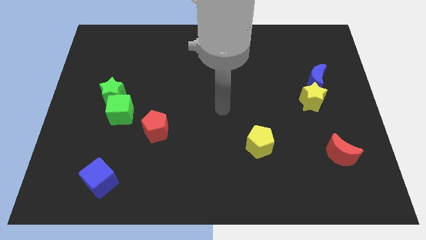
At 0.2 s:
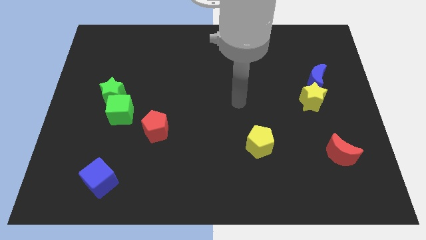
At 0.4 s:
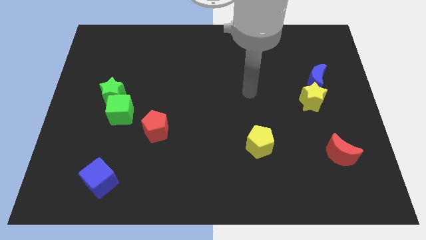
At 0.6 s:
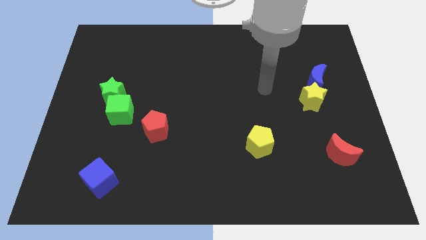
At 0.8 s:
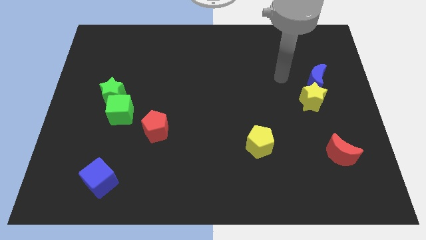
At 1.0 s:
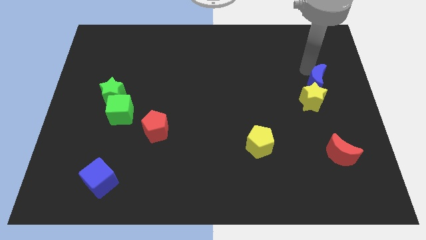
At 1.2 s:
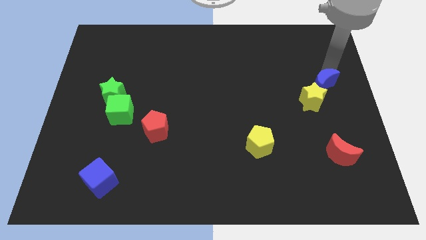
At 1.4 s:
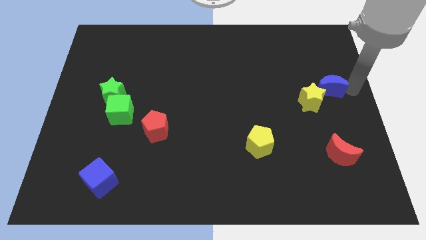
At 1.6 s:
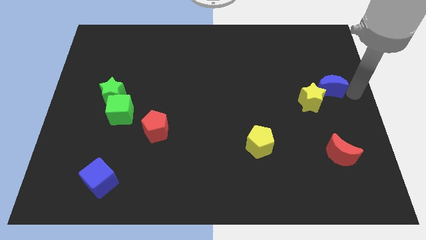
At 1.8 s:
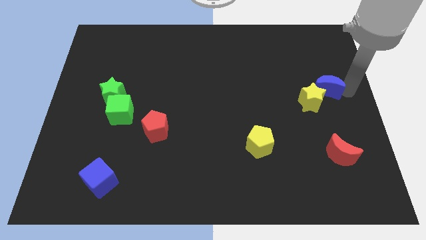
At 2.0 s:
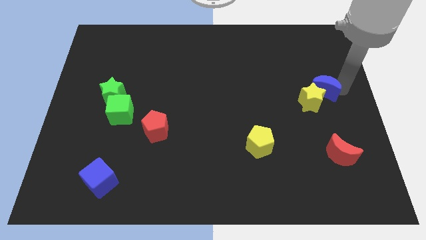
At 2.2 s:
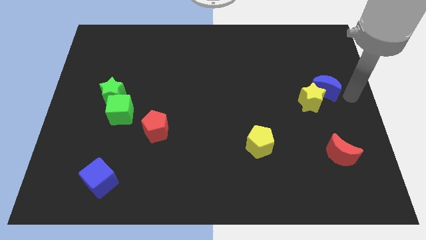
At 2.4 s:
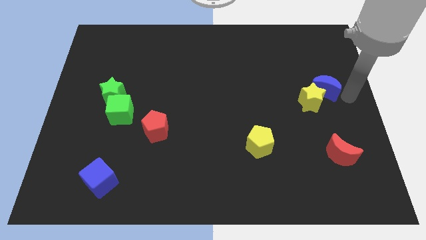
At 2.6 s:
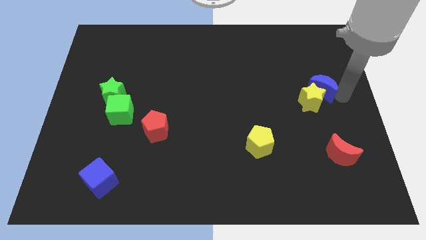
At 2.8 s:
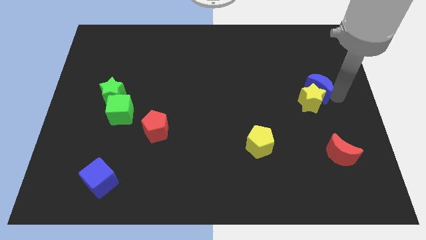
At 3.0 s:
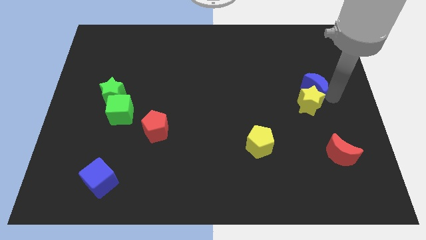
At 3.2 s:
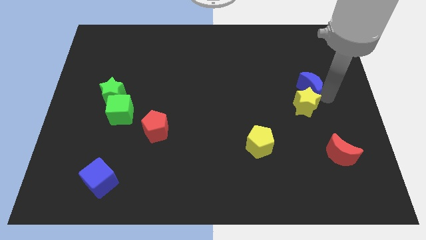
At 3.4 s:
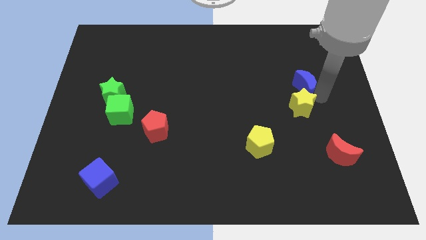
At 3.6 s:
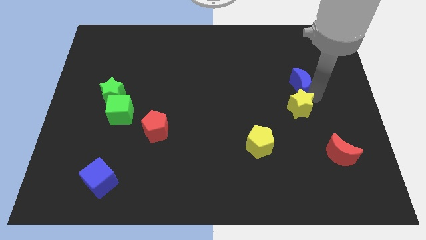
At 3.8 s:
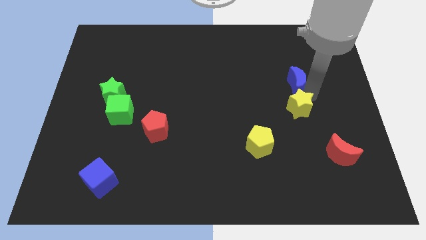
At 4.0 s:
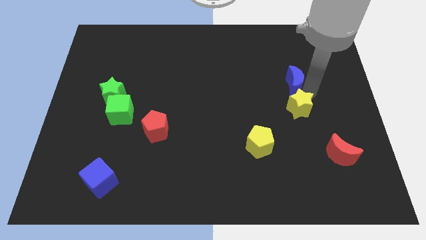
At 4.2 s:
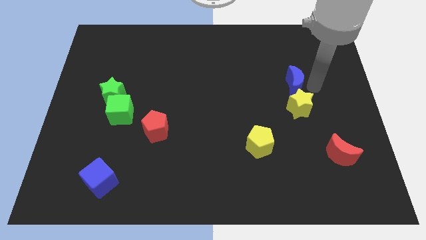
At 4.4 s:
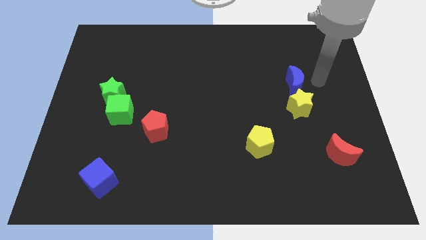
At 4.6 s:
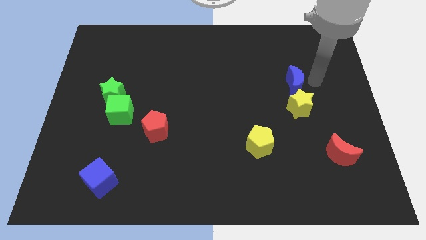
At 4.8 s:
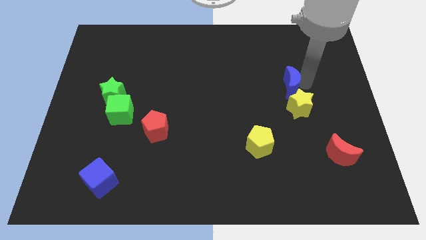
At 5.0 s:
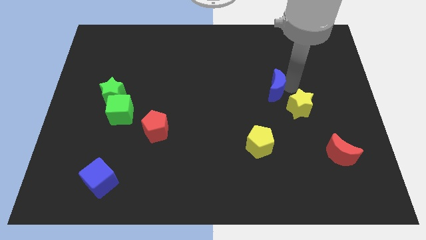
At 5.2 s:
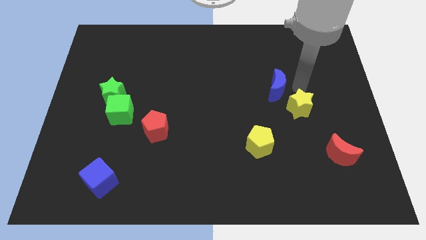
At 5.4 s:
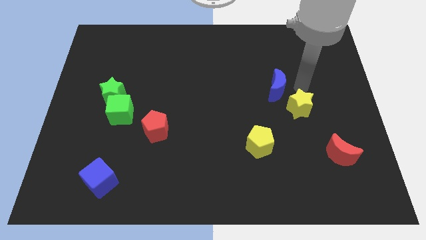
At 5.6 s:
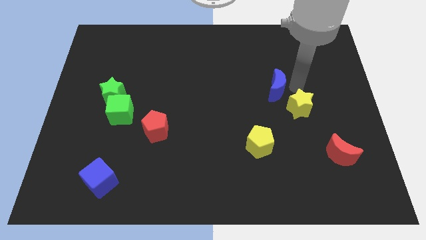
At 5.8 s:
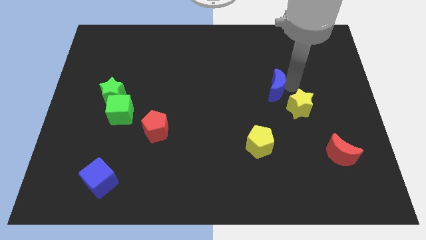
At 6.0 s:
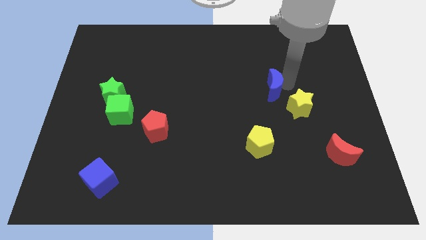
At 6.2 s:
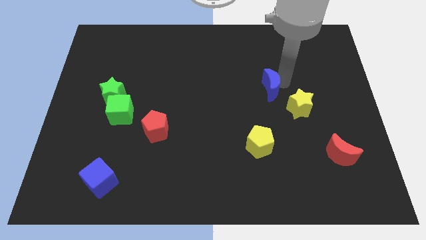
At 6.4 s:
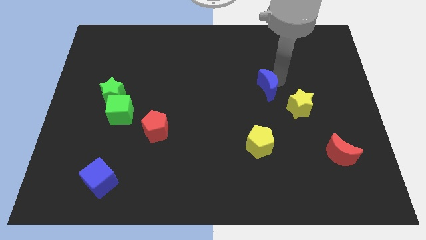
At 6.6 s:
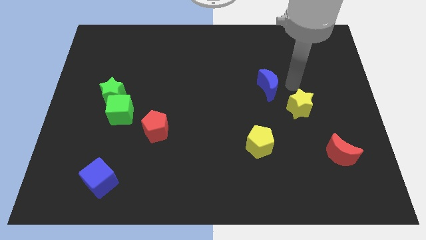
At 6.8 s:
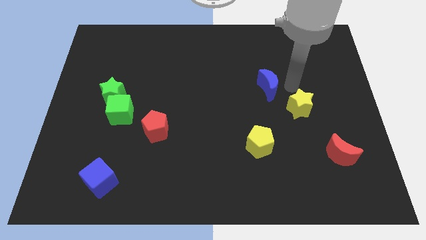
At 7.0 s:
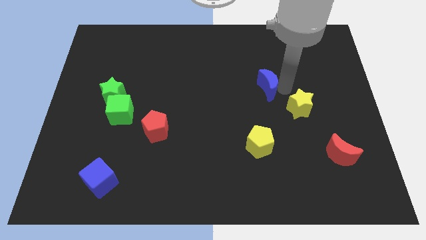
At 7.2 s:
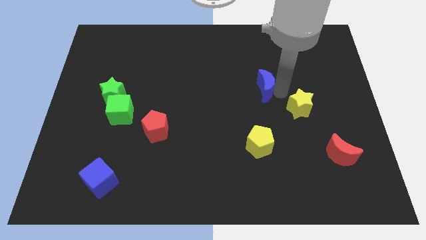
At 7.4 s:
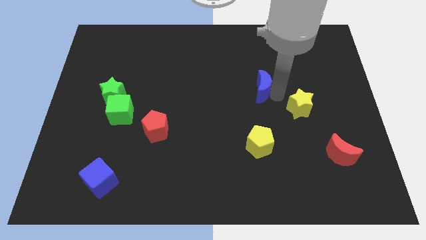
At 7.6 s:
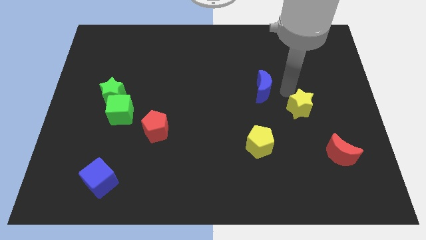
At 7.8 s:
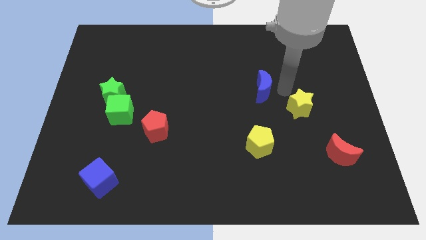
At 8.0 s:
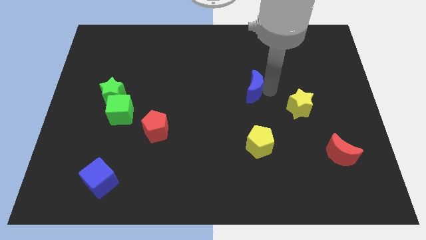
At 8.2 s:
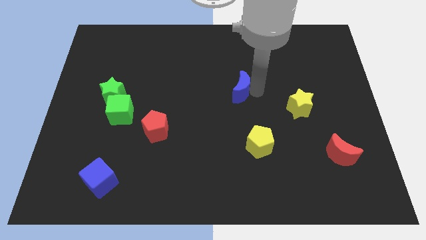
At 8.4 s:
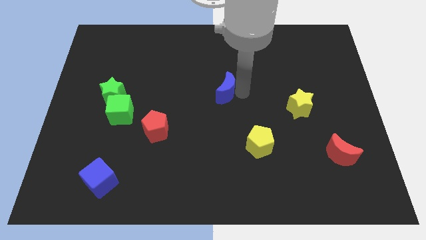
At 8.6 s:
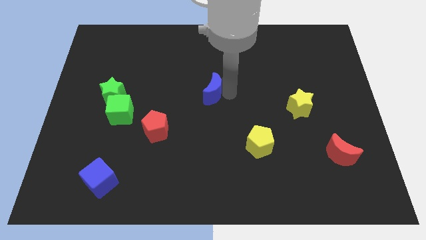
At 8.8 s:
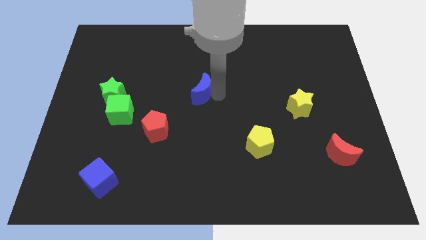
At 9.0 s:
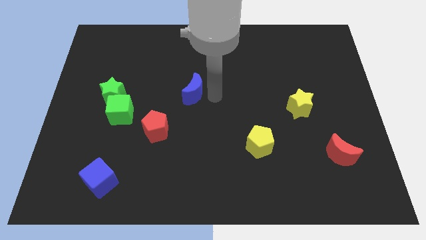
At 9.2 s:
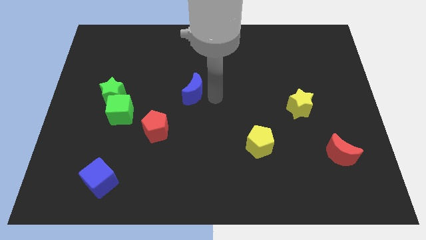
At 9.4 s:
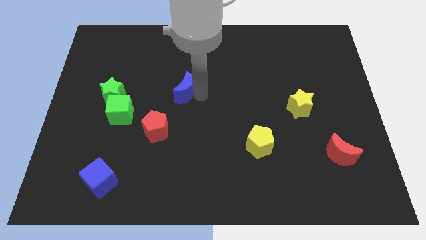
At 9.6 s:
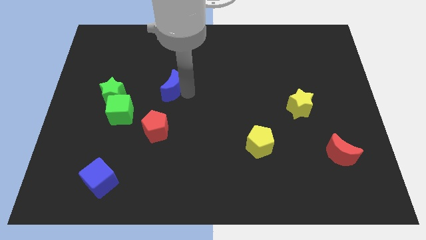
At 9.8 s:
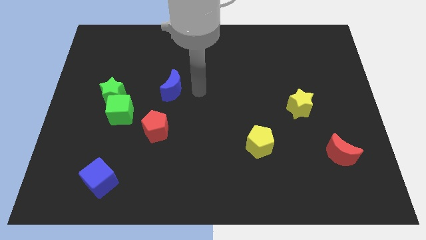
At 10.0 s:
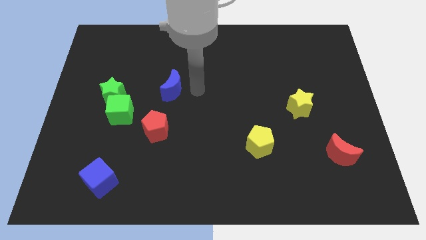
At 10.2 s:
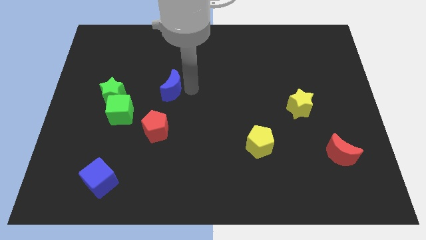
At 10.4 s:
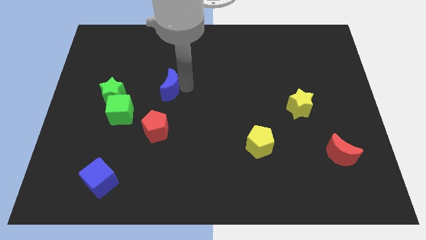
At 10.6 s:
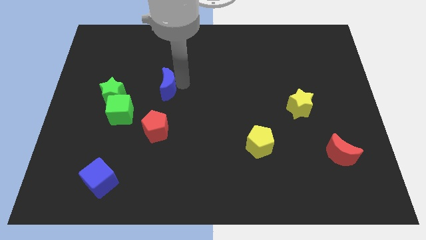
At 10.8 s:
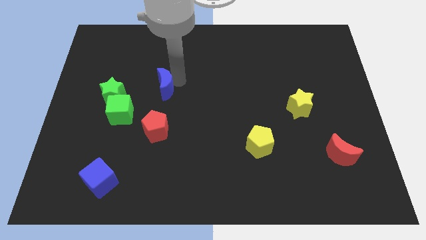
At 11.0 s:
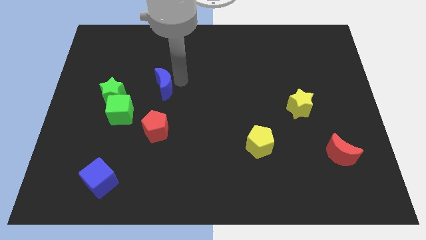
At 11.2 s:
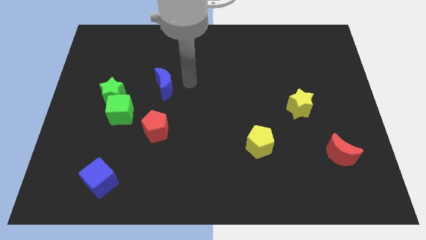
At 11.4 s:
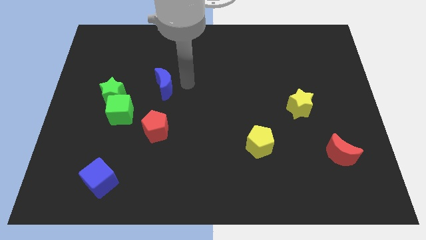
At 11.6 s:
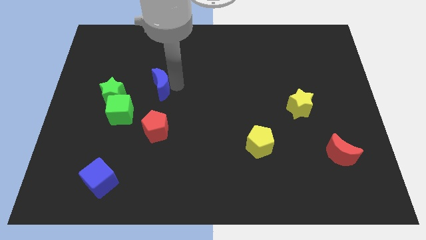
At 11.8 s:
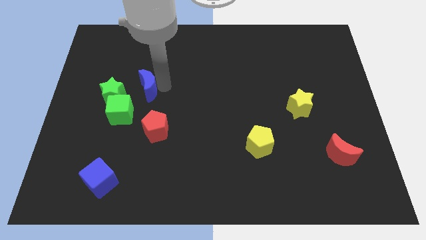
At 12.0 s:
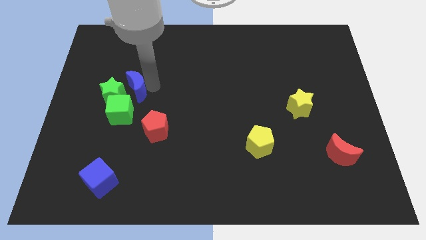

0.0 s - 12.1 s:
move the blue moon to the green star

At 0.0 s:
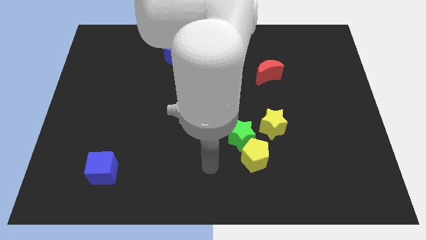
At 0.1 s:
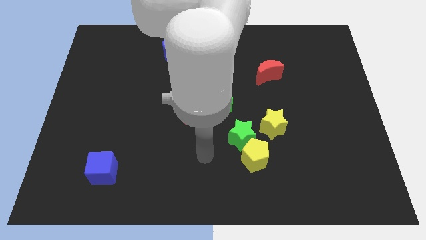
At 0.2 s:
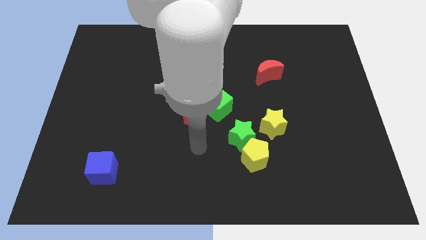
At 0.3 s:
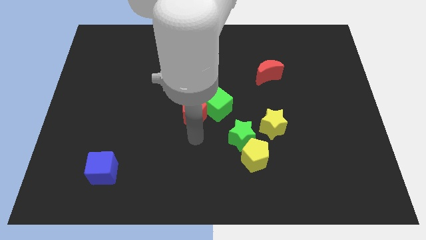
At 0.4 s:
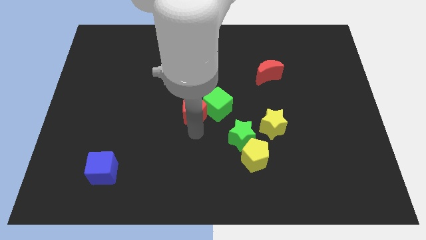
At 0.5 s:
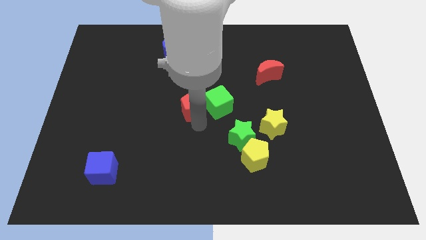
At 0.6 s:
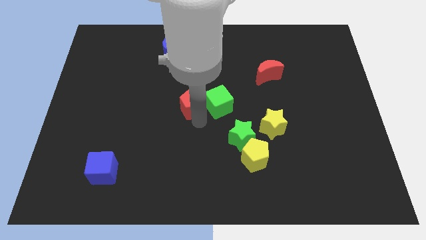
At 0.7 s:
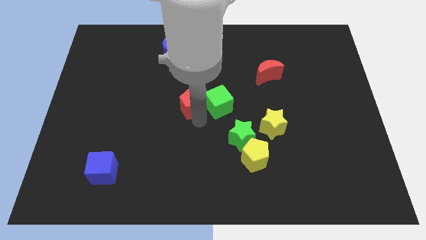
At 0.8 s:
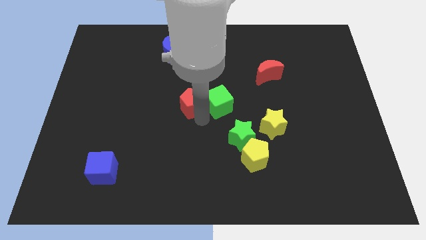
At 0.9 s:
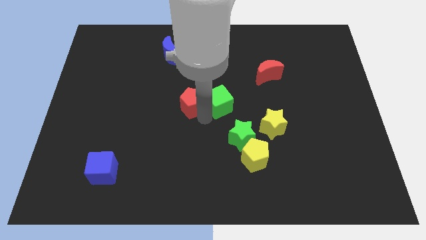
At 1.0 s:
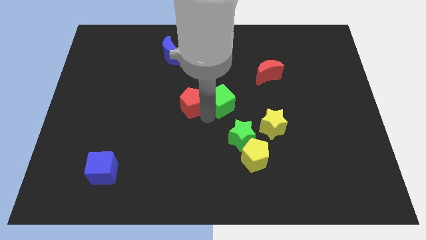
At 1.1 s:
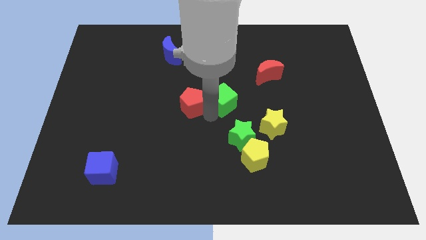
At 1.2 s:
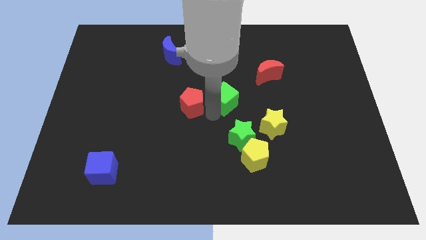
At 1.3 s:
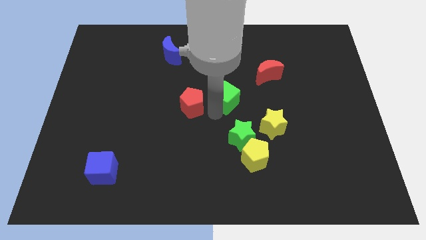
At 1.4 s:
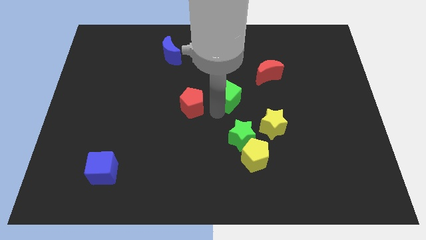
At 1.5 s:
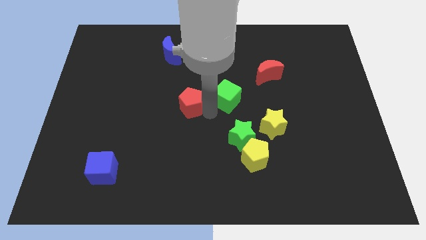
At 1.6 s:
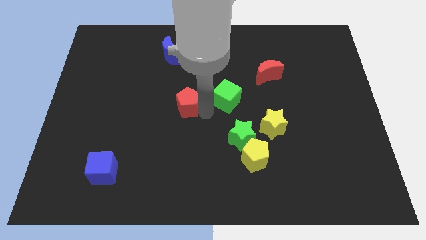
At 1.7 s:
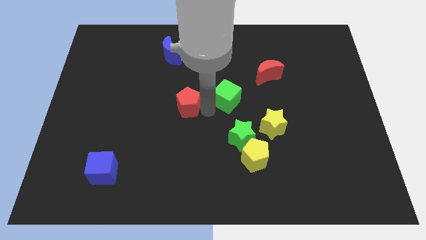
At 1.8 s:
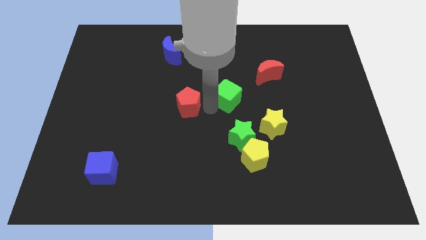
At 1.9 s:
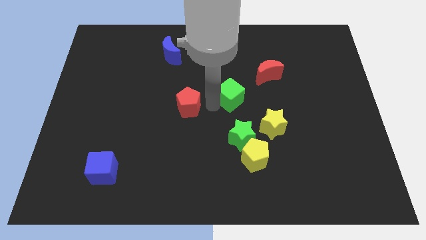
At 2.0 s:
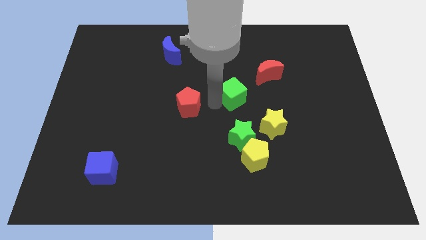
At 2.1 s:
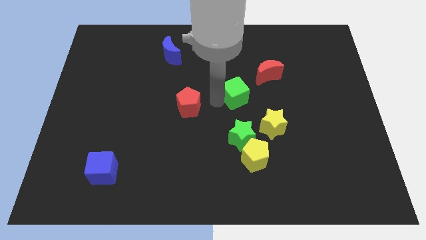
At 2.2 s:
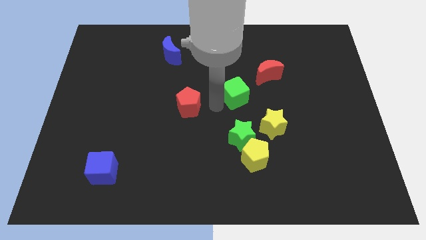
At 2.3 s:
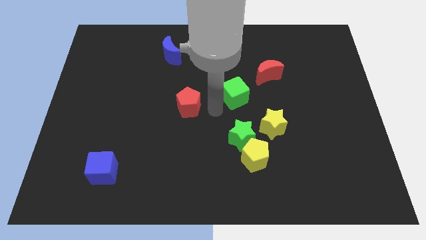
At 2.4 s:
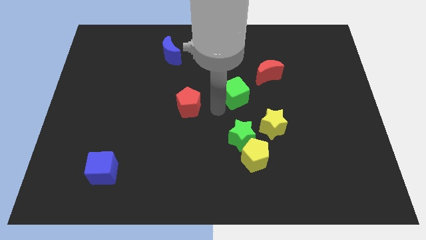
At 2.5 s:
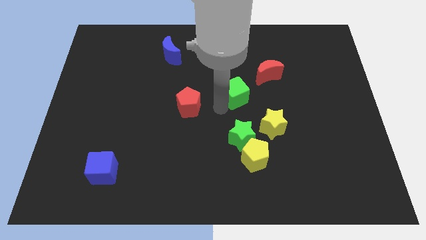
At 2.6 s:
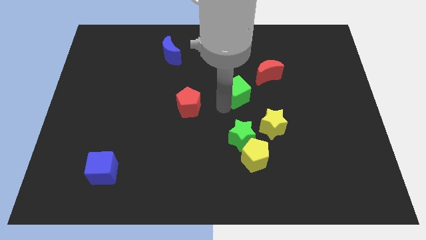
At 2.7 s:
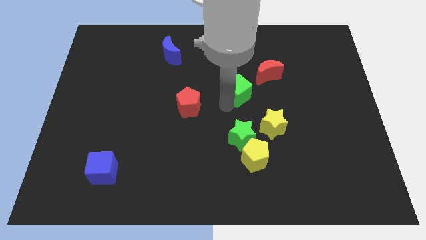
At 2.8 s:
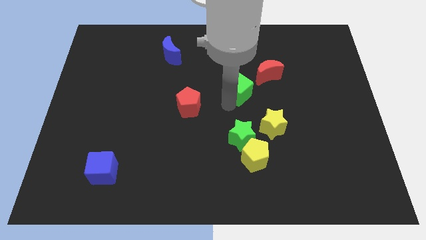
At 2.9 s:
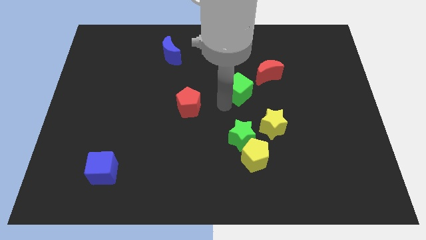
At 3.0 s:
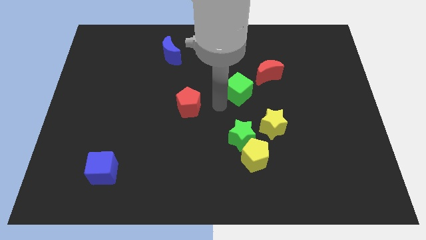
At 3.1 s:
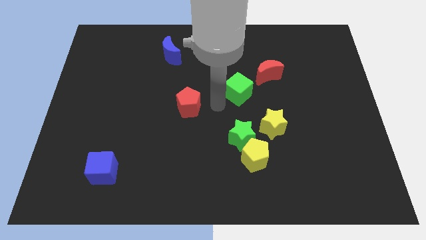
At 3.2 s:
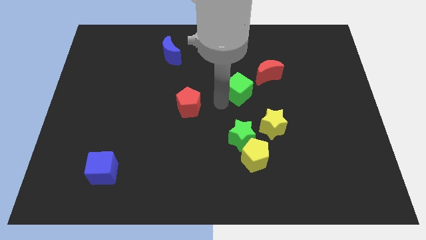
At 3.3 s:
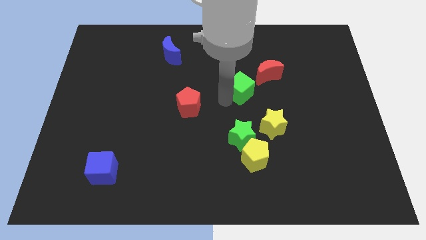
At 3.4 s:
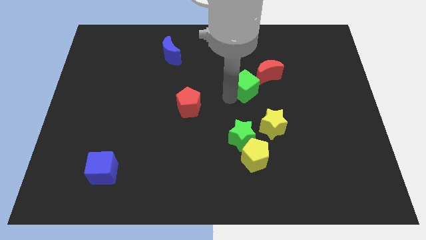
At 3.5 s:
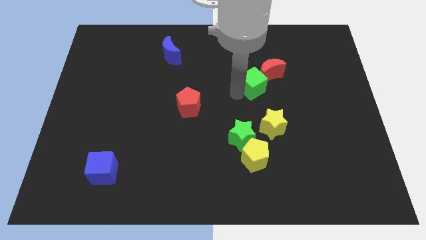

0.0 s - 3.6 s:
put the green cube towards the red moon
